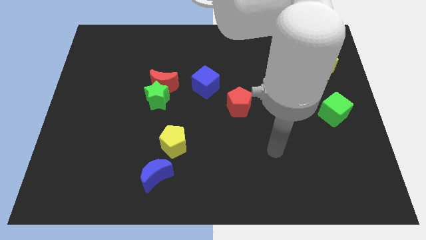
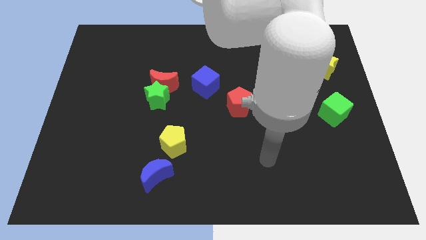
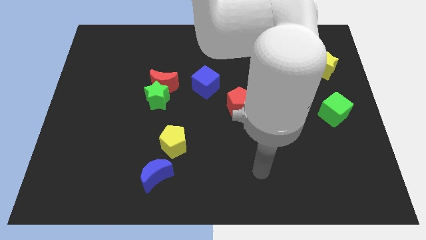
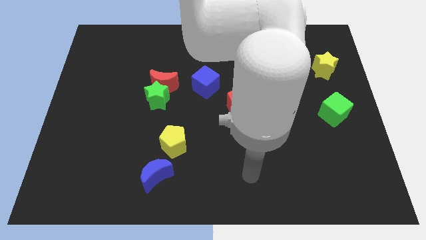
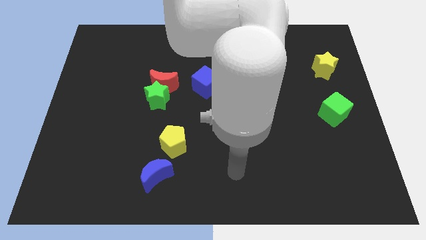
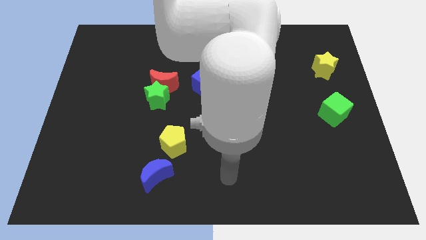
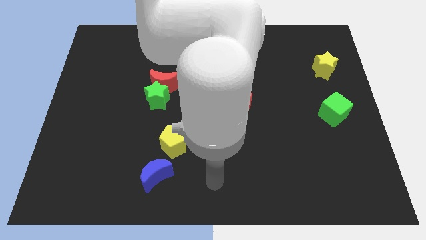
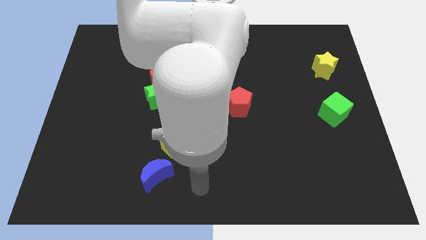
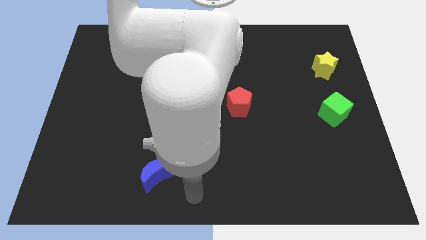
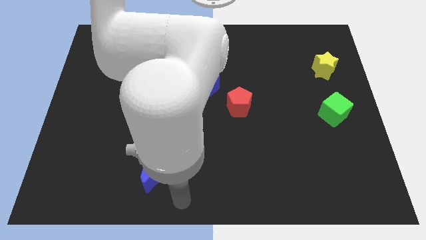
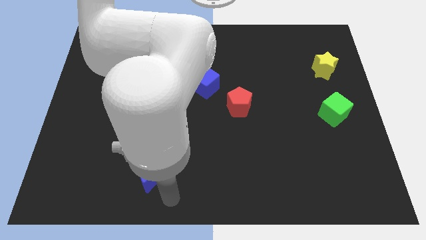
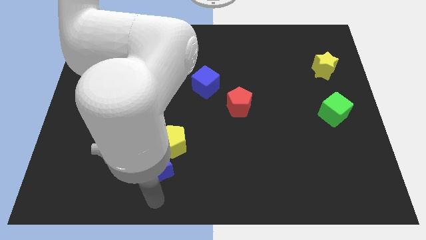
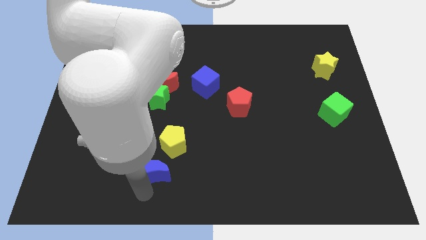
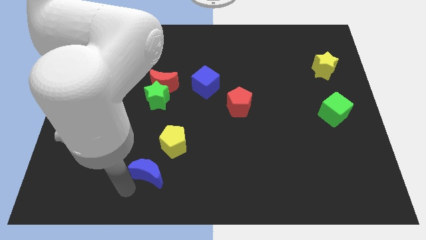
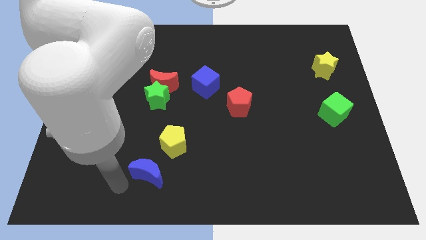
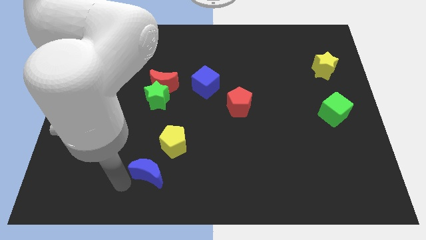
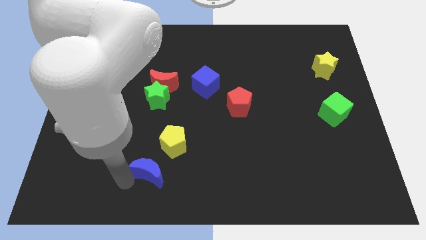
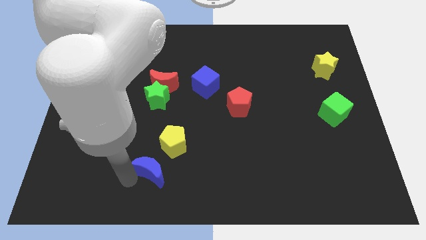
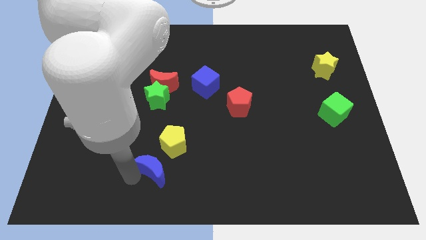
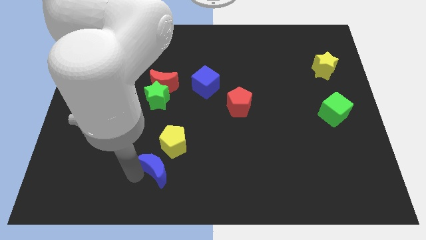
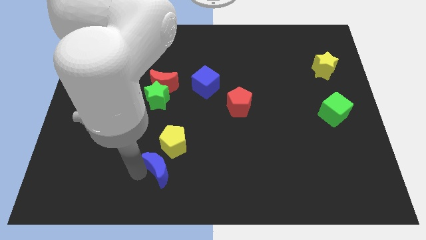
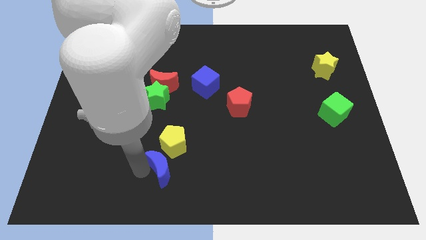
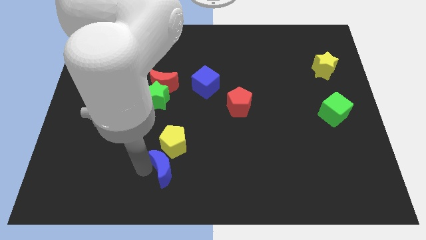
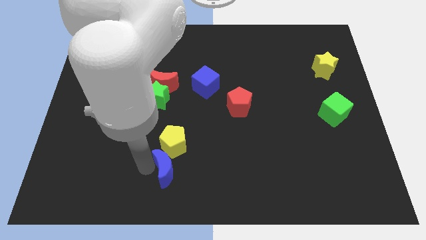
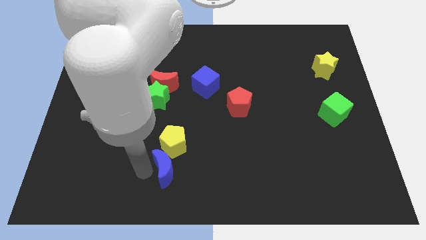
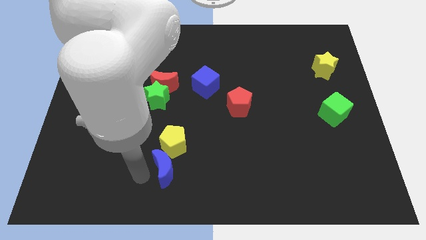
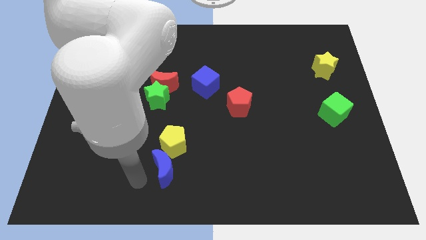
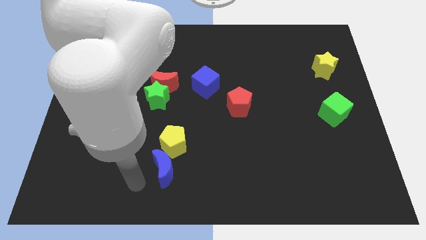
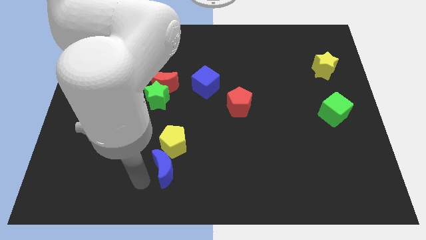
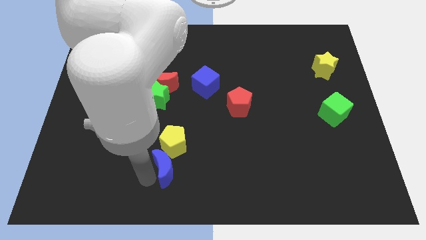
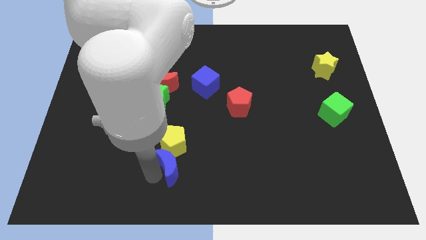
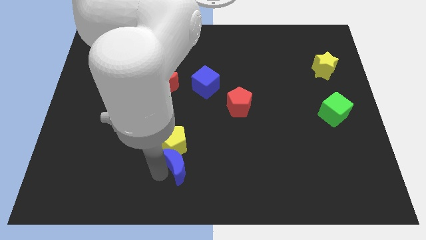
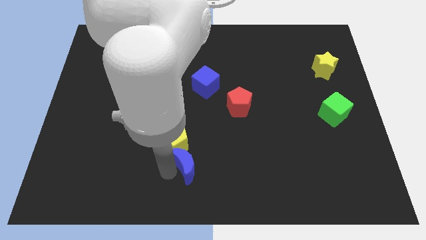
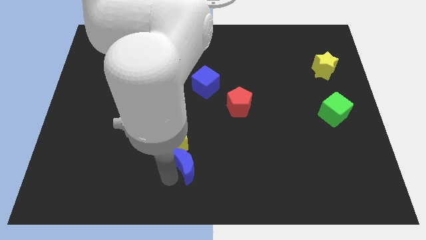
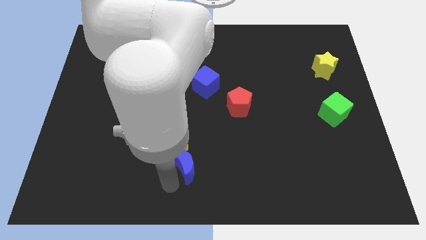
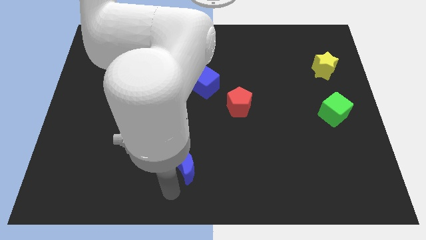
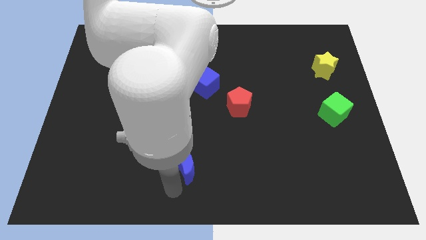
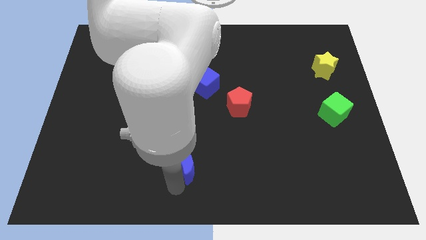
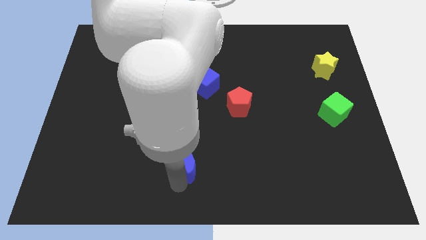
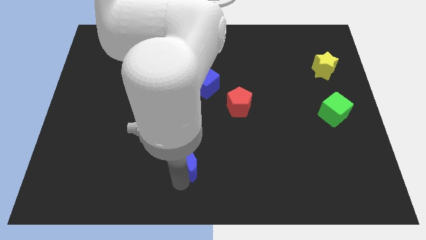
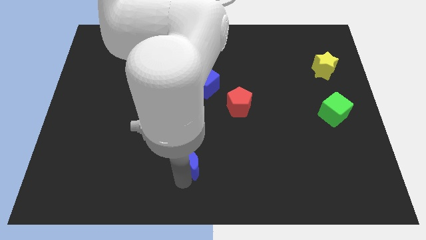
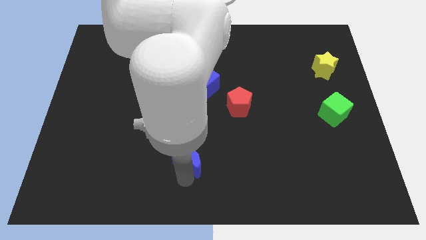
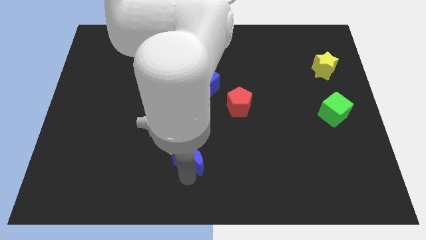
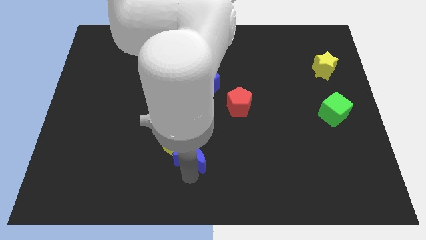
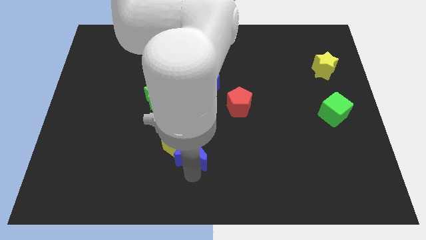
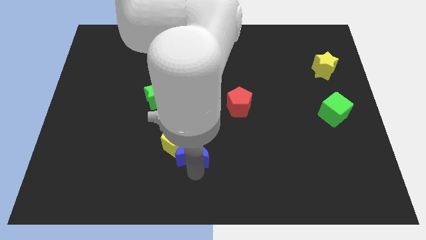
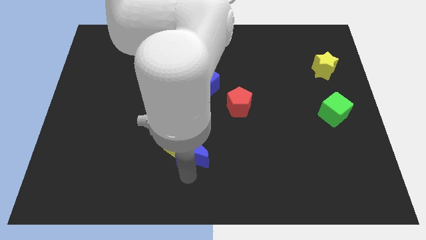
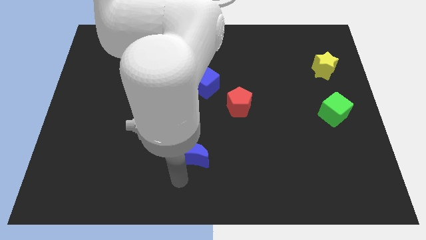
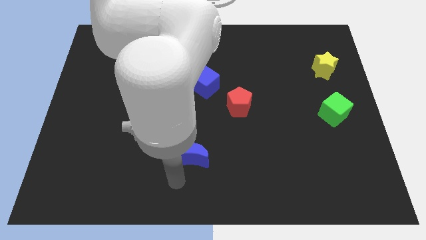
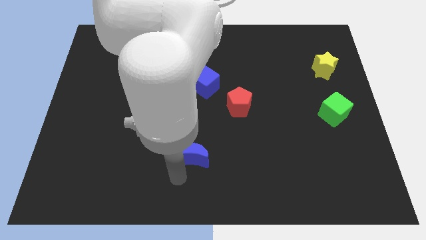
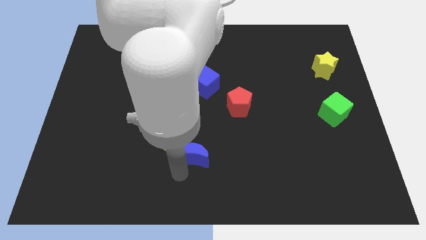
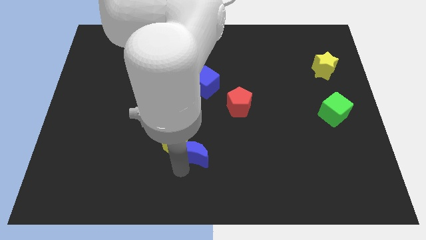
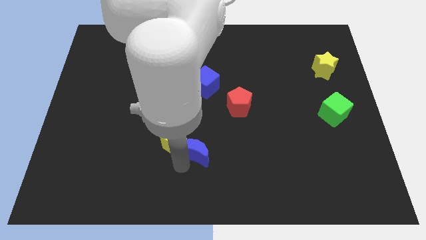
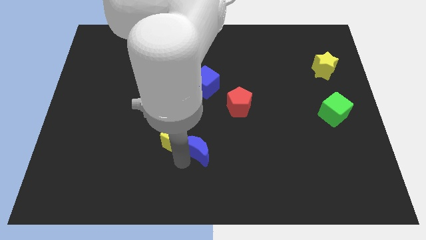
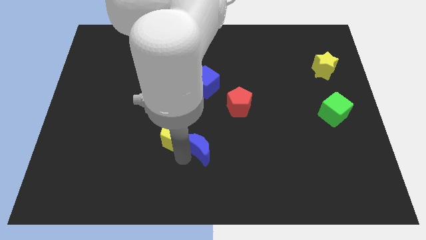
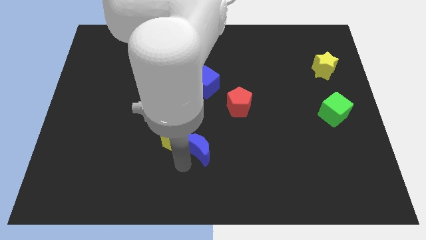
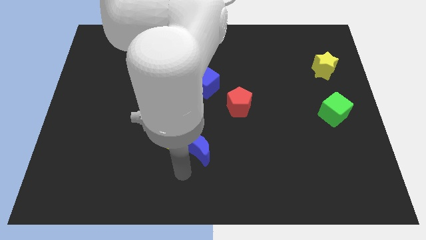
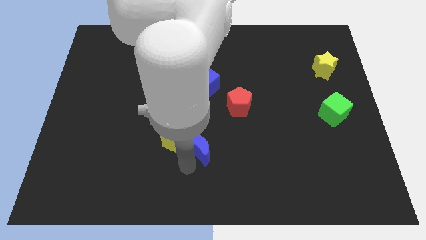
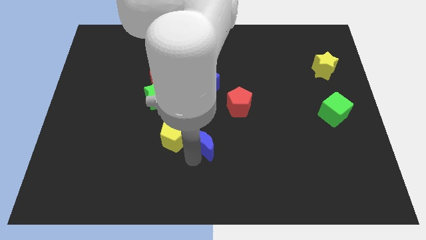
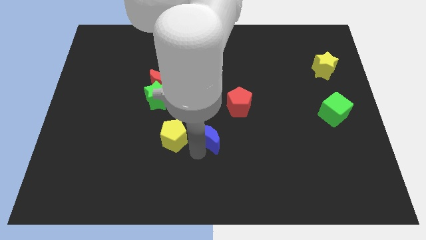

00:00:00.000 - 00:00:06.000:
slide the blue moon diagonally down and to the left of the red pentagon
